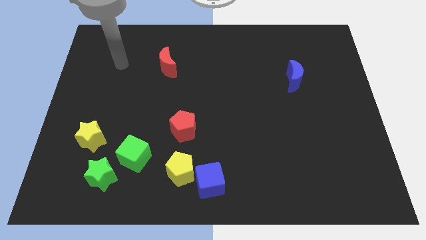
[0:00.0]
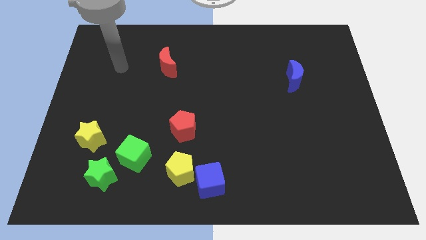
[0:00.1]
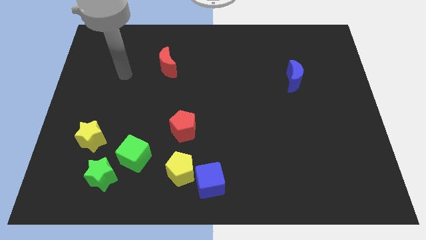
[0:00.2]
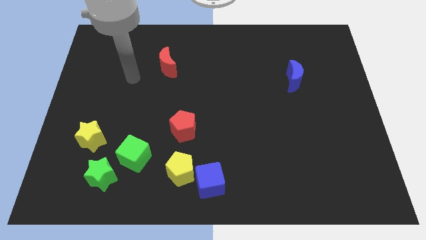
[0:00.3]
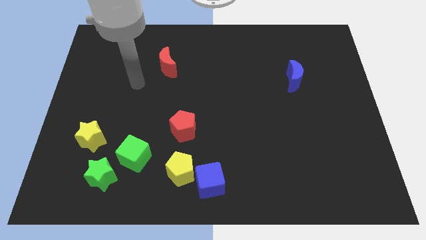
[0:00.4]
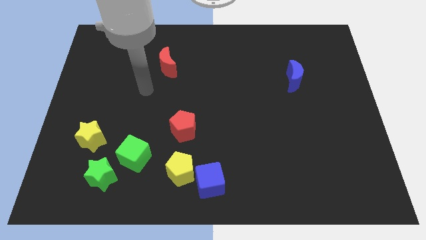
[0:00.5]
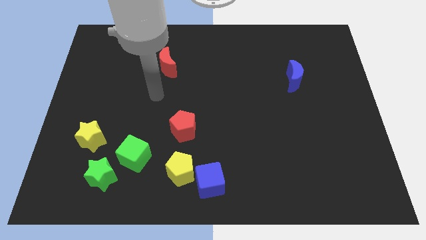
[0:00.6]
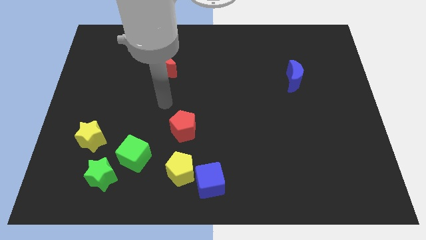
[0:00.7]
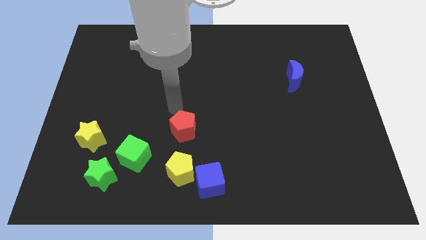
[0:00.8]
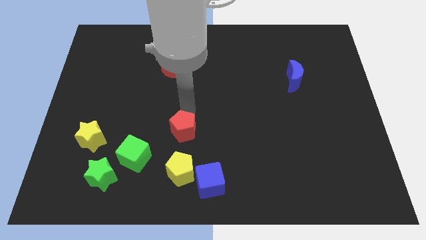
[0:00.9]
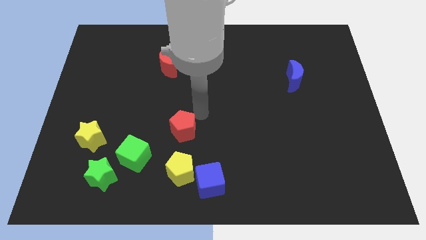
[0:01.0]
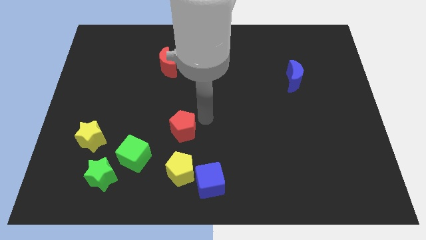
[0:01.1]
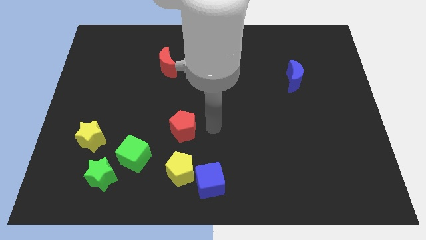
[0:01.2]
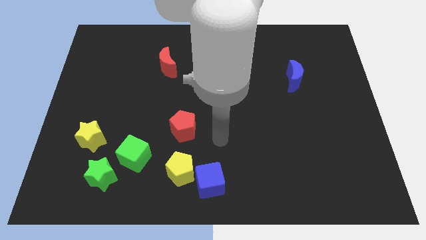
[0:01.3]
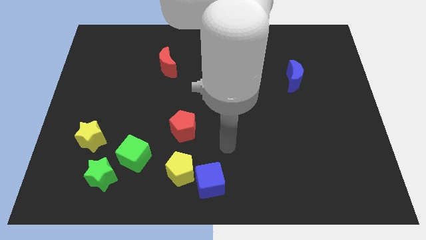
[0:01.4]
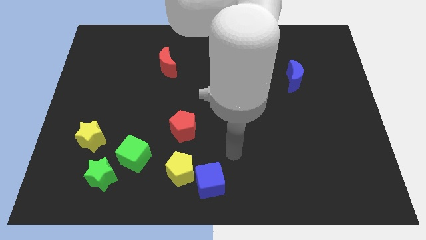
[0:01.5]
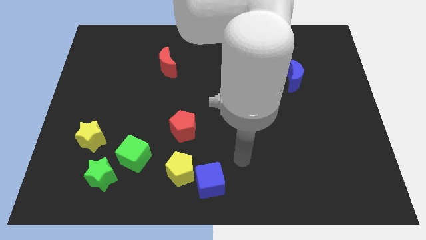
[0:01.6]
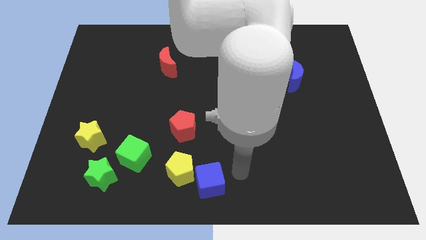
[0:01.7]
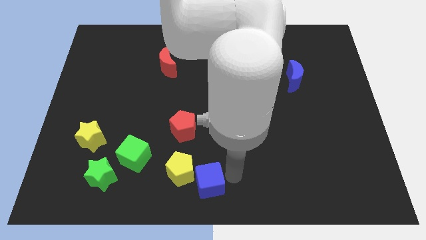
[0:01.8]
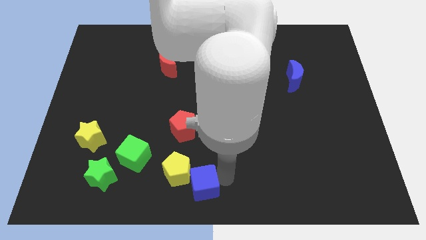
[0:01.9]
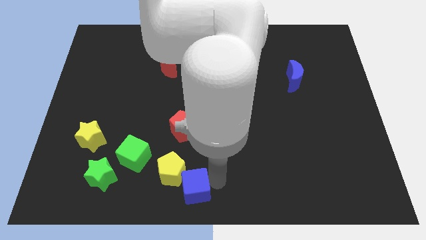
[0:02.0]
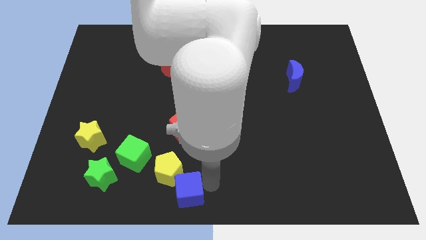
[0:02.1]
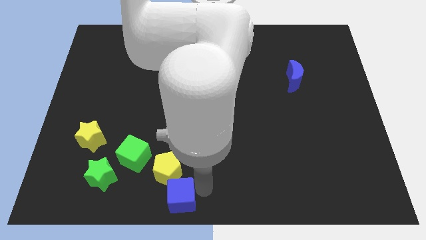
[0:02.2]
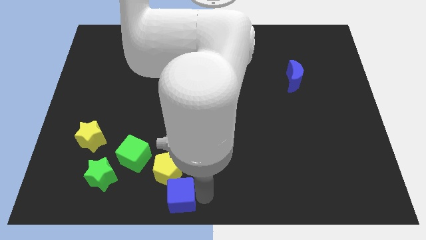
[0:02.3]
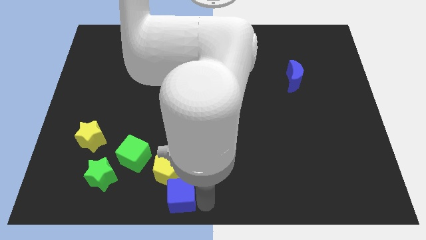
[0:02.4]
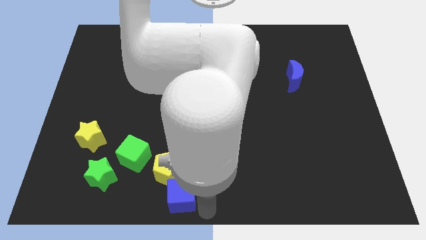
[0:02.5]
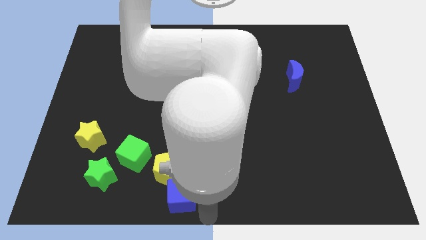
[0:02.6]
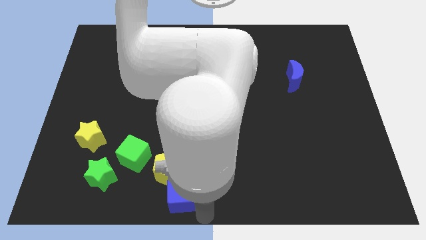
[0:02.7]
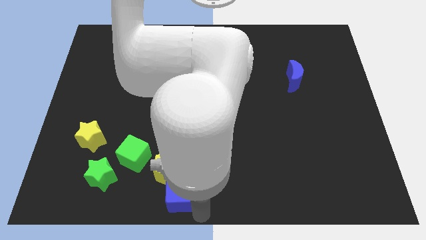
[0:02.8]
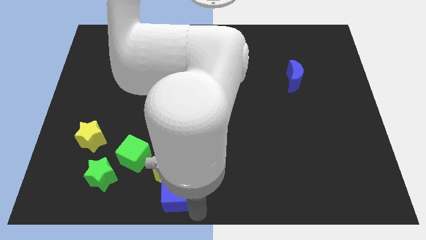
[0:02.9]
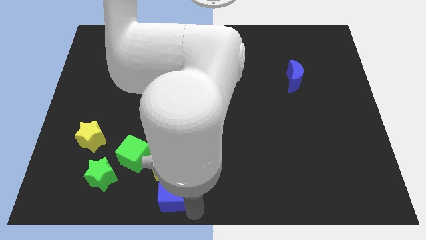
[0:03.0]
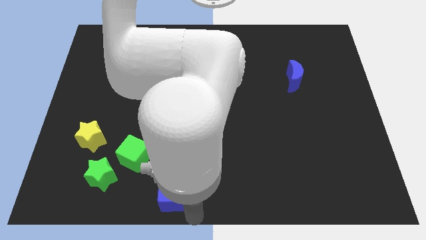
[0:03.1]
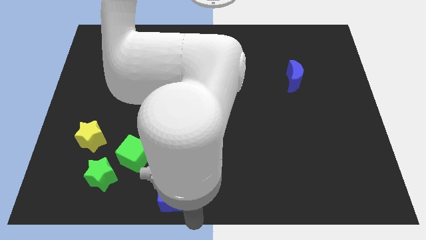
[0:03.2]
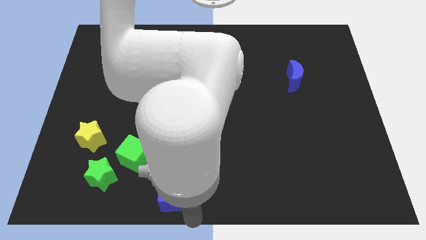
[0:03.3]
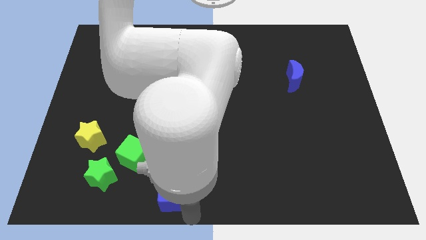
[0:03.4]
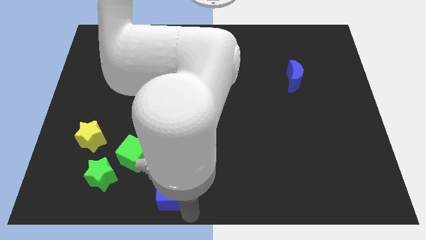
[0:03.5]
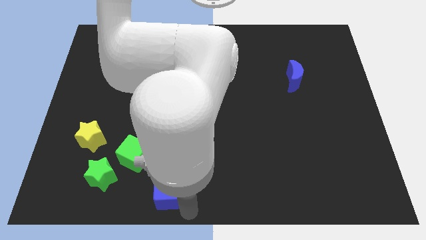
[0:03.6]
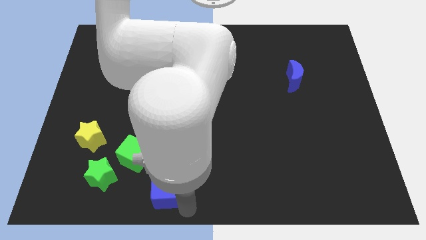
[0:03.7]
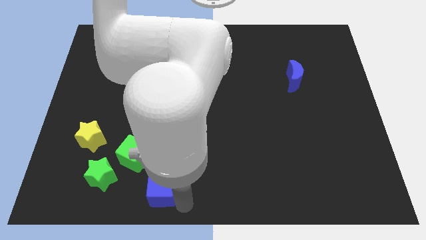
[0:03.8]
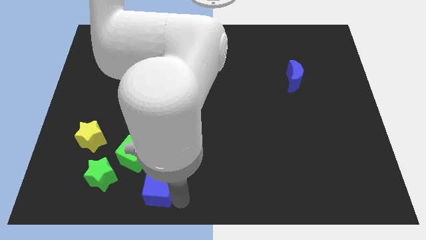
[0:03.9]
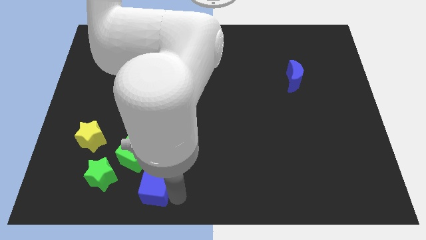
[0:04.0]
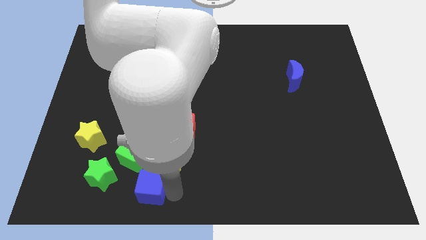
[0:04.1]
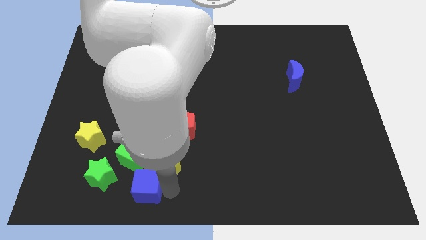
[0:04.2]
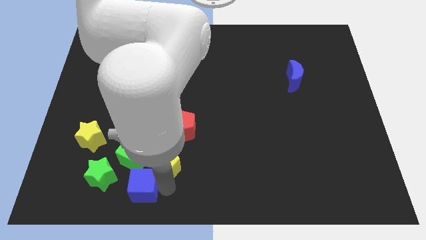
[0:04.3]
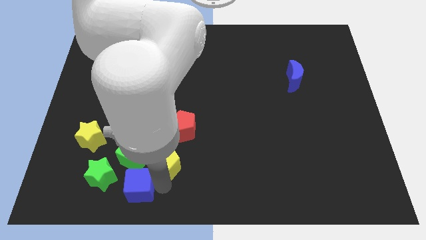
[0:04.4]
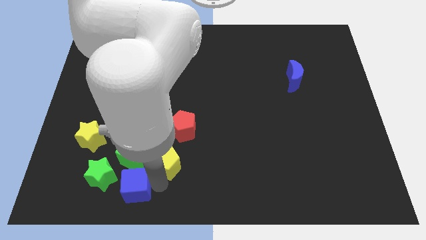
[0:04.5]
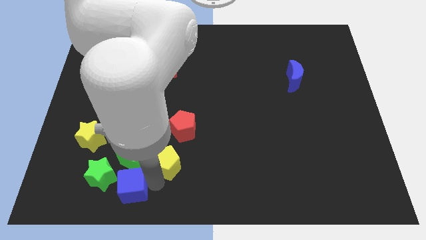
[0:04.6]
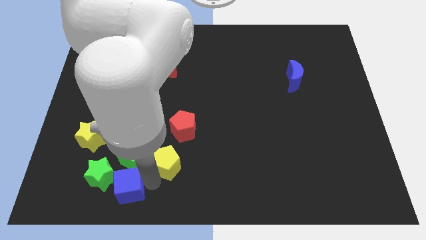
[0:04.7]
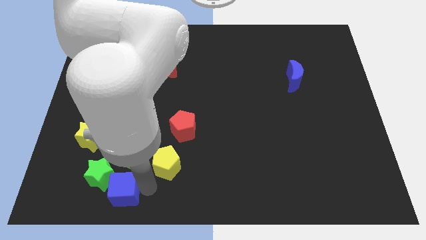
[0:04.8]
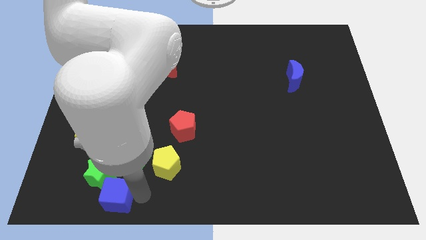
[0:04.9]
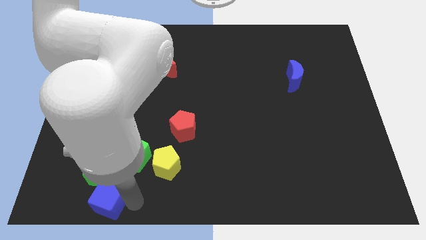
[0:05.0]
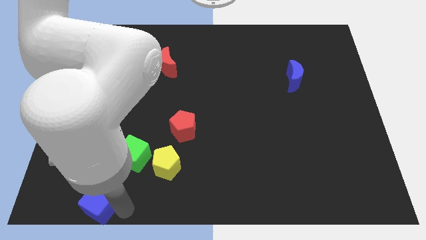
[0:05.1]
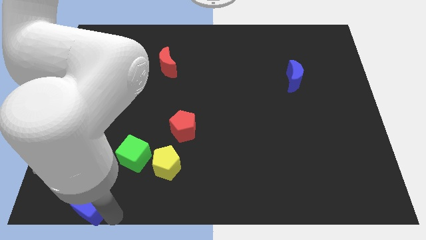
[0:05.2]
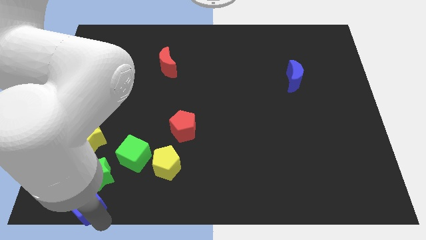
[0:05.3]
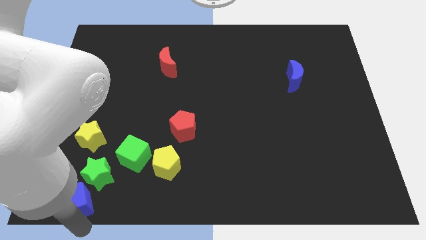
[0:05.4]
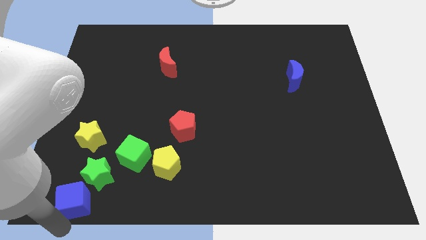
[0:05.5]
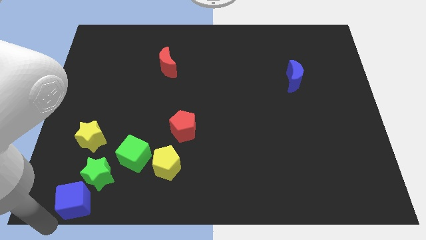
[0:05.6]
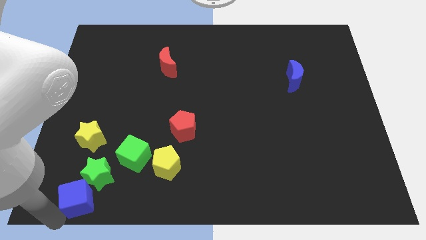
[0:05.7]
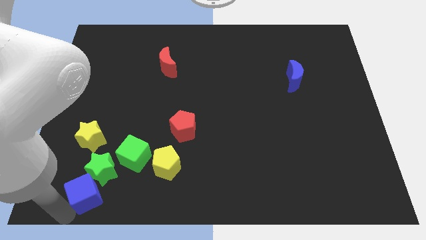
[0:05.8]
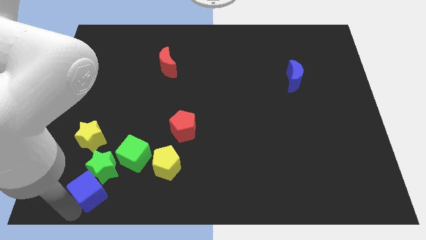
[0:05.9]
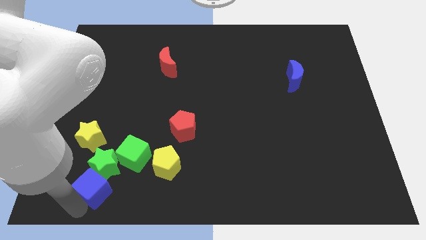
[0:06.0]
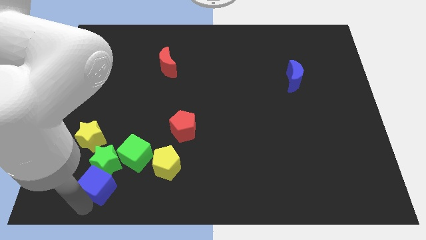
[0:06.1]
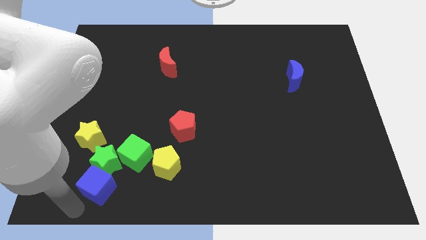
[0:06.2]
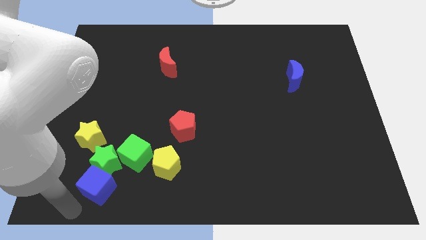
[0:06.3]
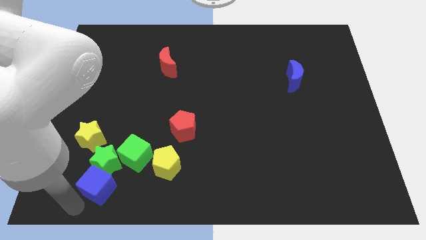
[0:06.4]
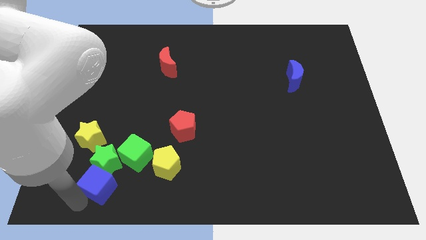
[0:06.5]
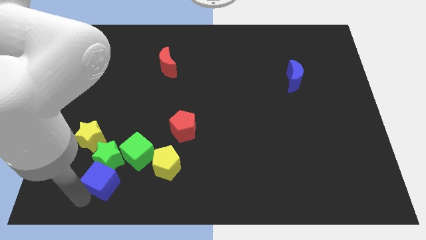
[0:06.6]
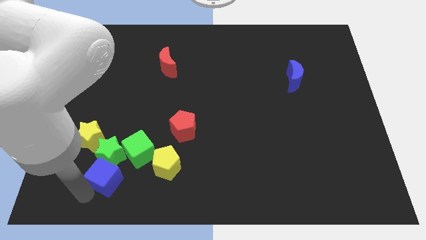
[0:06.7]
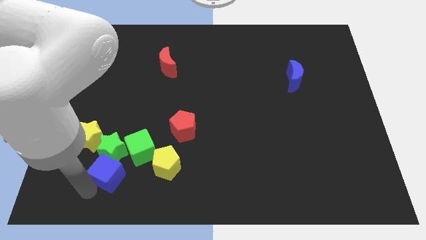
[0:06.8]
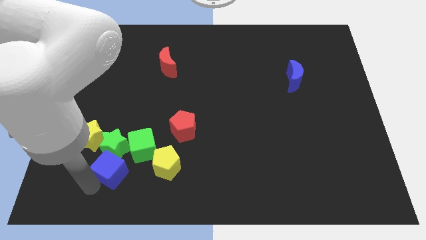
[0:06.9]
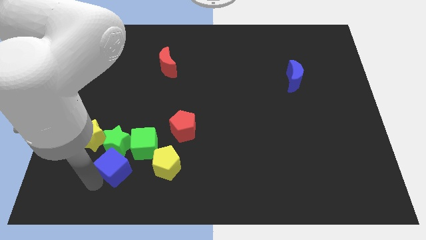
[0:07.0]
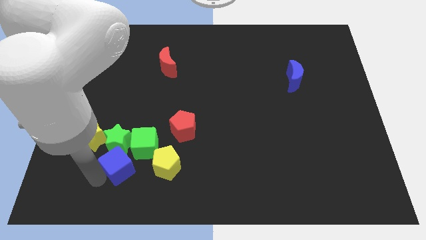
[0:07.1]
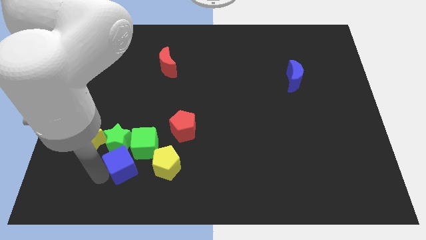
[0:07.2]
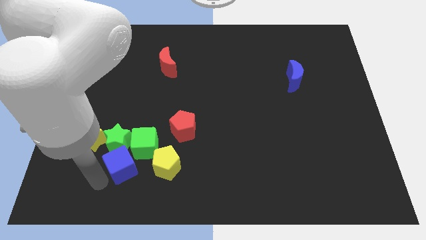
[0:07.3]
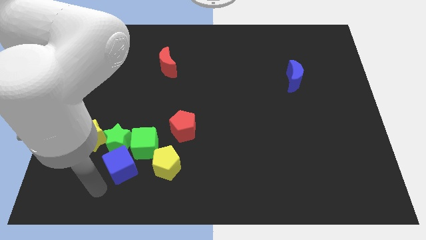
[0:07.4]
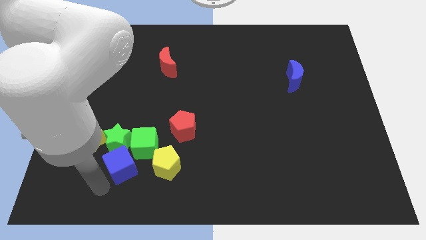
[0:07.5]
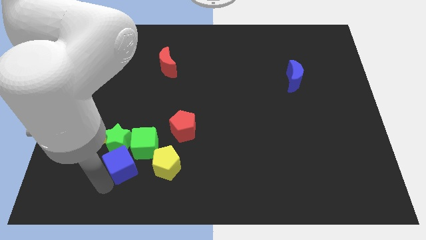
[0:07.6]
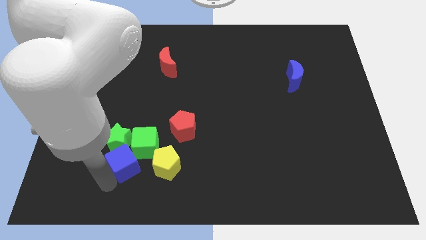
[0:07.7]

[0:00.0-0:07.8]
move the blue cube close to the green cube
